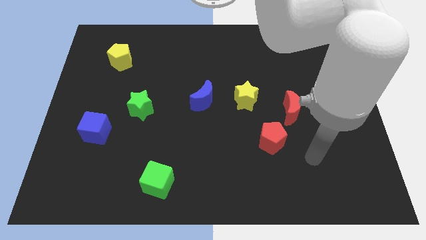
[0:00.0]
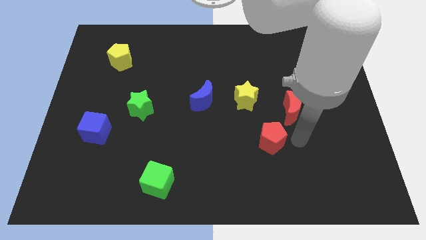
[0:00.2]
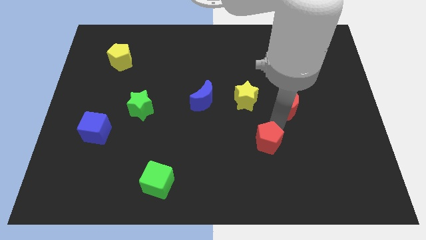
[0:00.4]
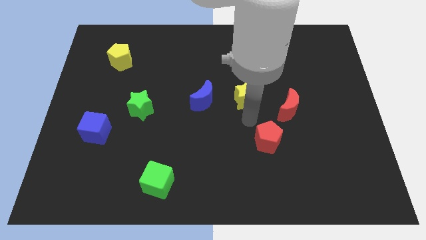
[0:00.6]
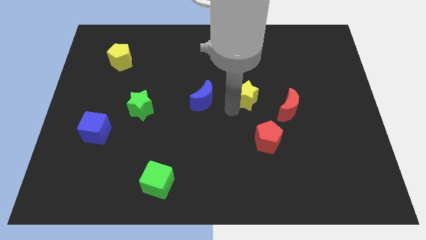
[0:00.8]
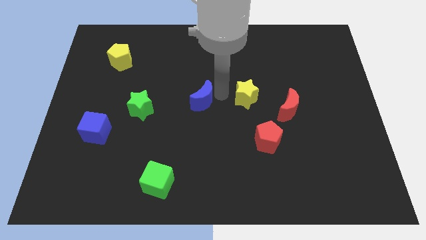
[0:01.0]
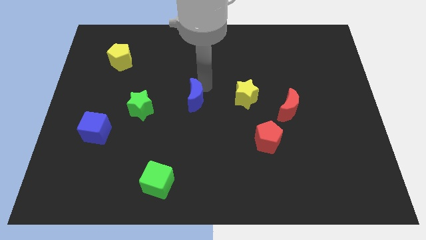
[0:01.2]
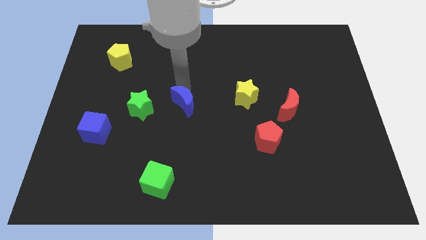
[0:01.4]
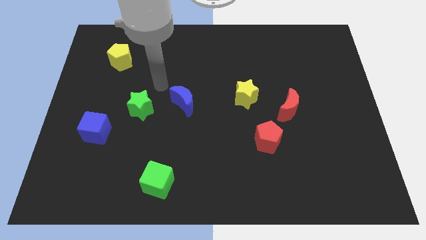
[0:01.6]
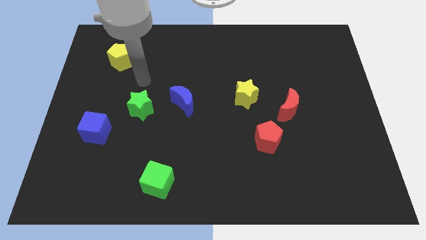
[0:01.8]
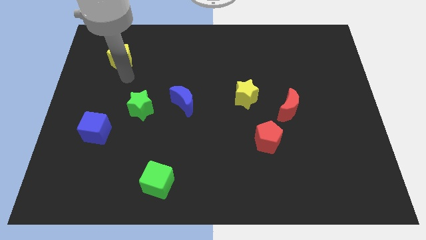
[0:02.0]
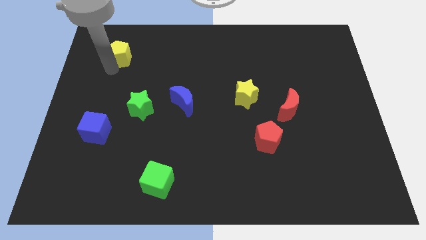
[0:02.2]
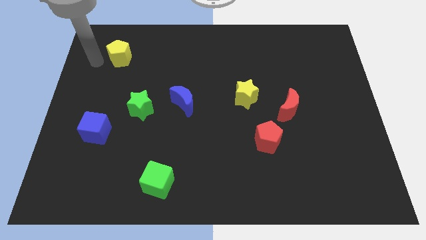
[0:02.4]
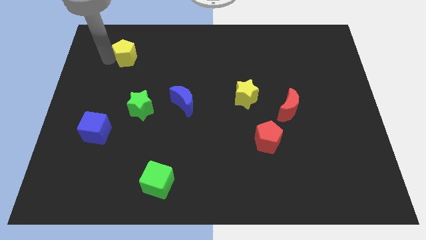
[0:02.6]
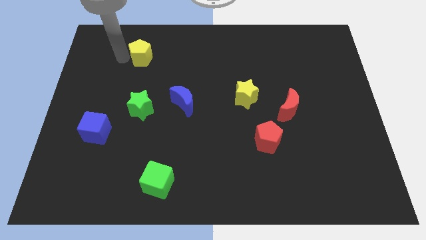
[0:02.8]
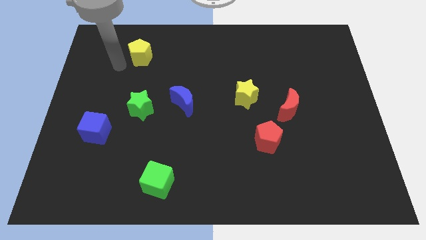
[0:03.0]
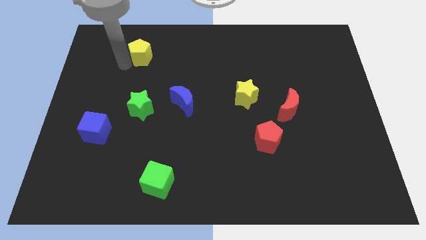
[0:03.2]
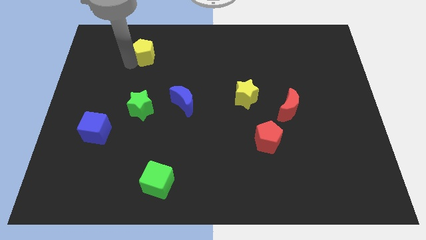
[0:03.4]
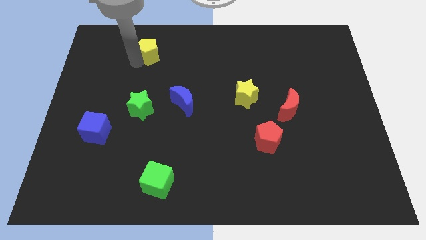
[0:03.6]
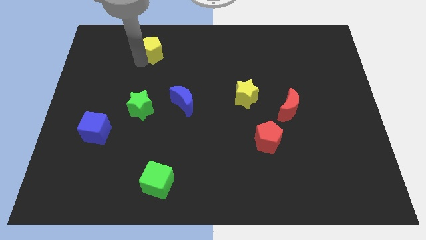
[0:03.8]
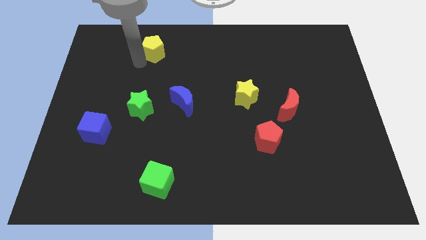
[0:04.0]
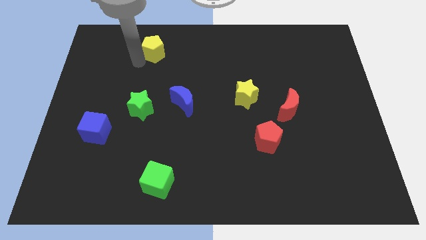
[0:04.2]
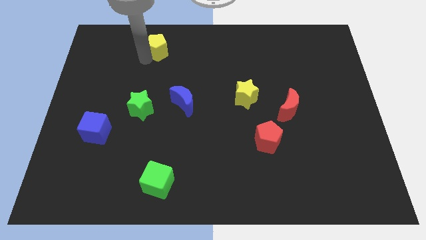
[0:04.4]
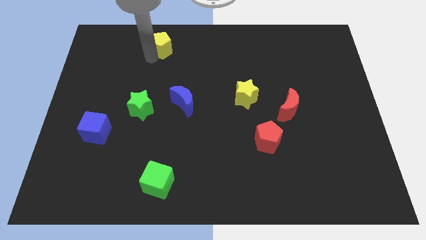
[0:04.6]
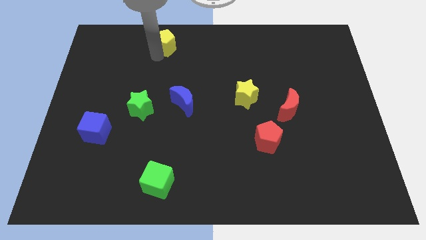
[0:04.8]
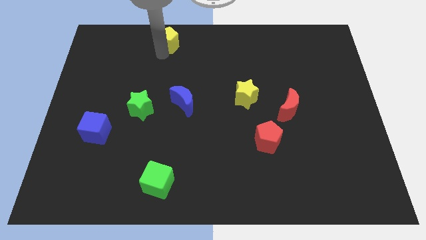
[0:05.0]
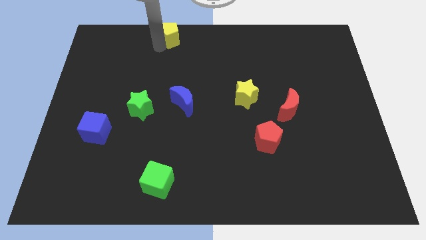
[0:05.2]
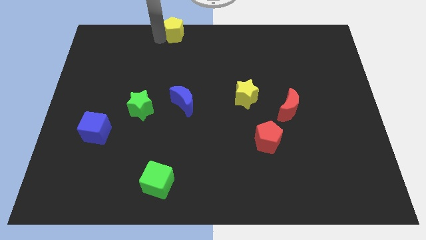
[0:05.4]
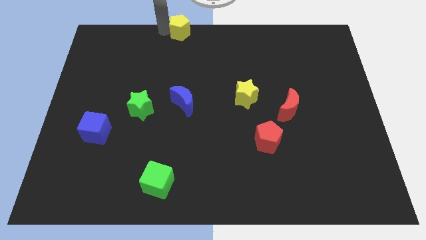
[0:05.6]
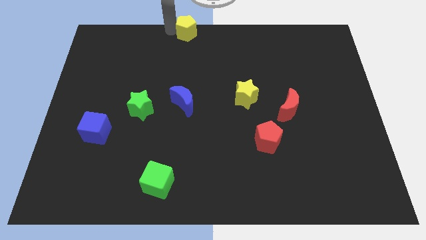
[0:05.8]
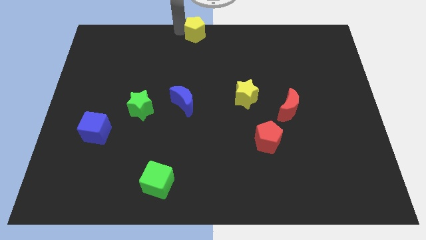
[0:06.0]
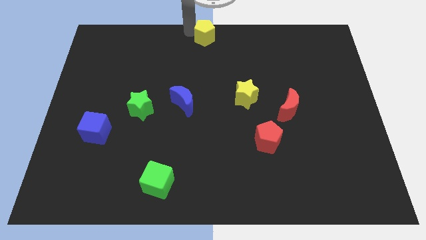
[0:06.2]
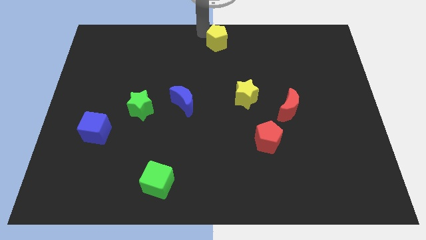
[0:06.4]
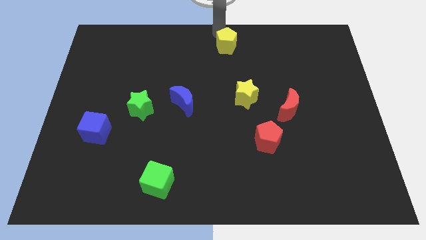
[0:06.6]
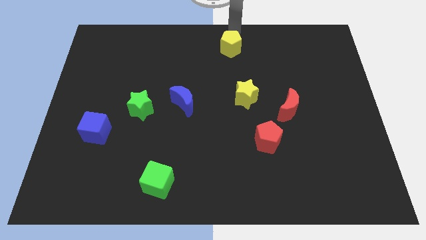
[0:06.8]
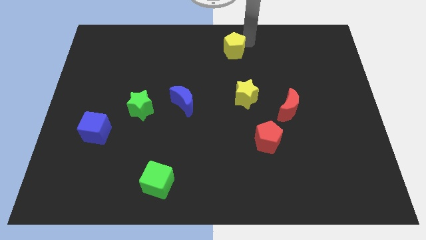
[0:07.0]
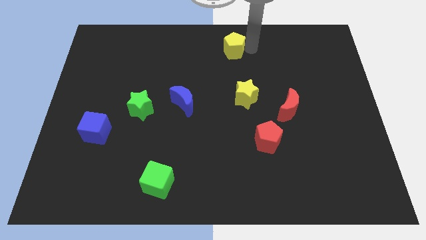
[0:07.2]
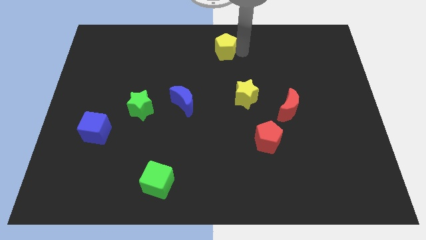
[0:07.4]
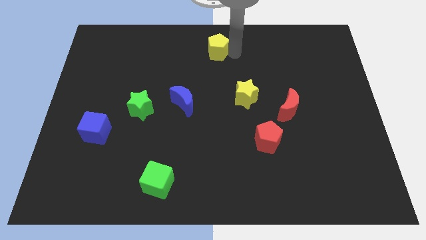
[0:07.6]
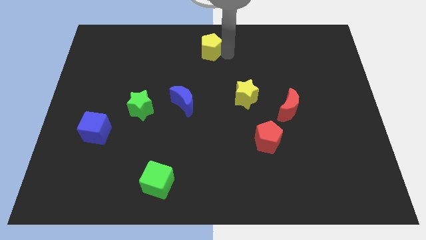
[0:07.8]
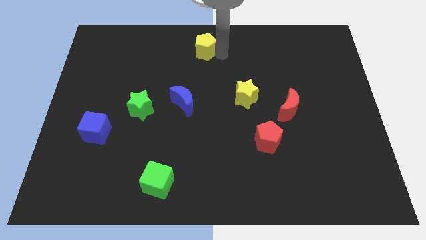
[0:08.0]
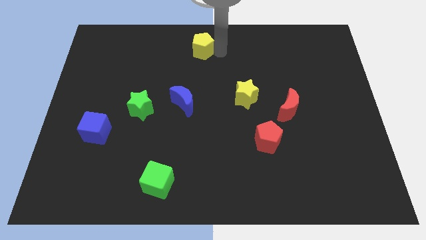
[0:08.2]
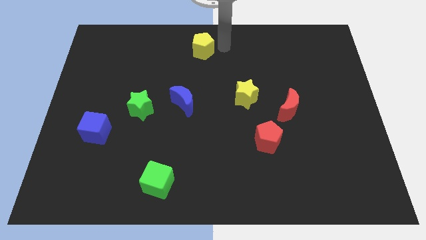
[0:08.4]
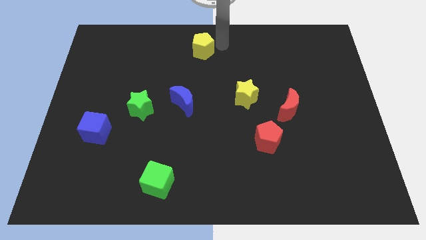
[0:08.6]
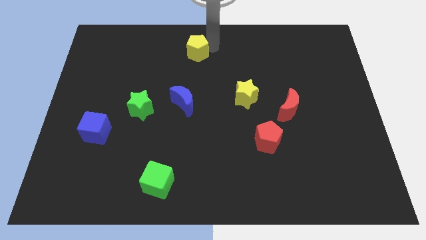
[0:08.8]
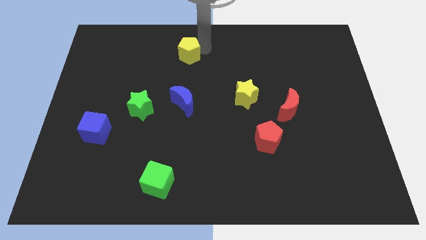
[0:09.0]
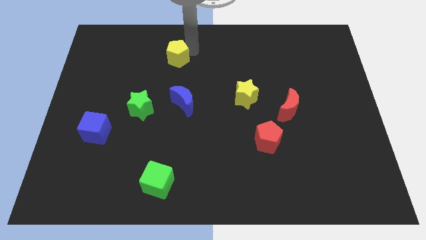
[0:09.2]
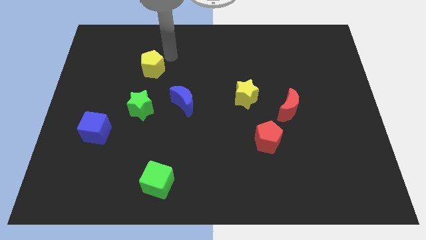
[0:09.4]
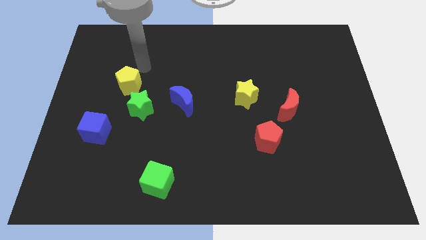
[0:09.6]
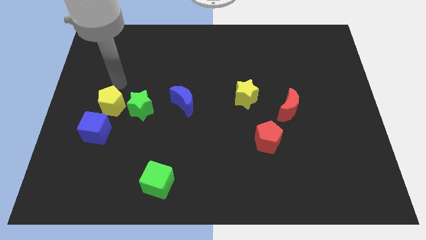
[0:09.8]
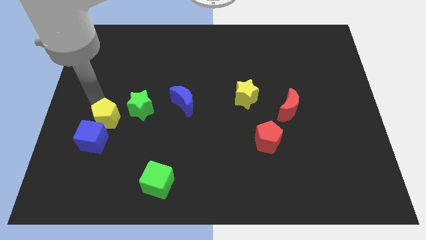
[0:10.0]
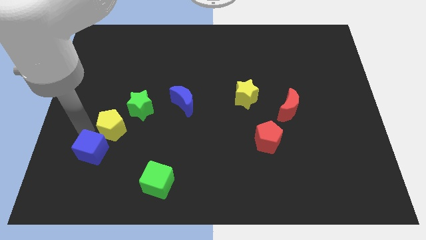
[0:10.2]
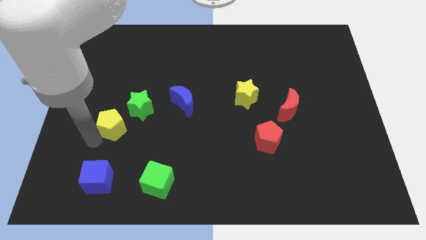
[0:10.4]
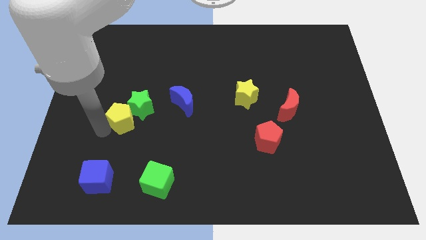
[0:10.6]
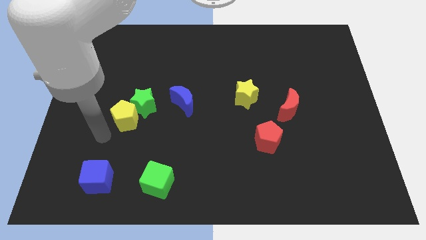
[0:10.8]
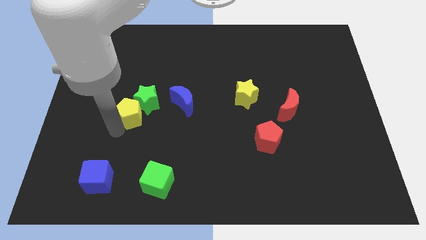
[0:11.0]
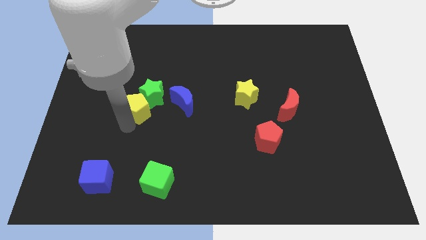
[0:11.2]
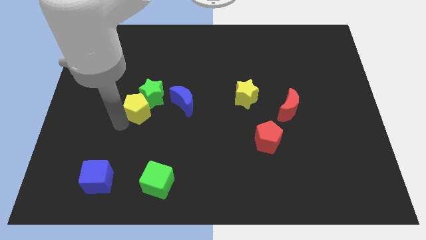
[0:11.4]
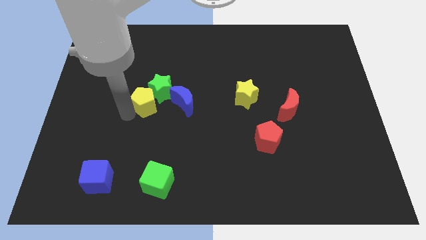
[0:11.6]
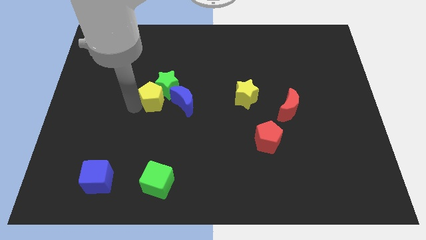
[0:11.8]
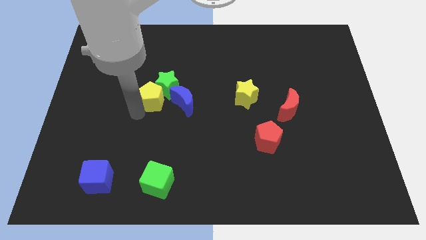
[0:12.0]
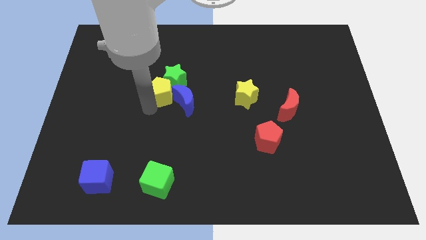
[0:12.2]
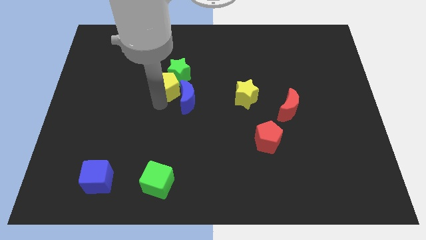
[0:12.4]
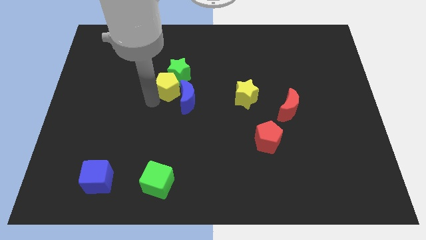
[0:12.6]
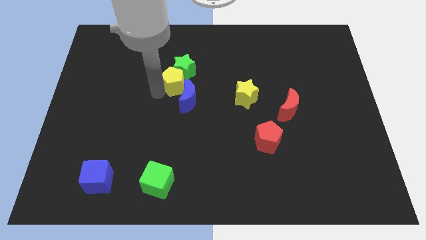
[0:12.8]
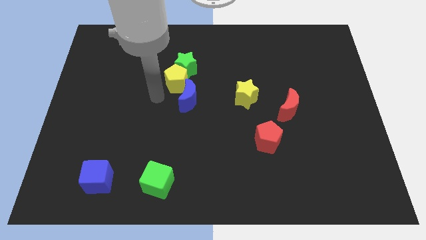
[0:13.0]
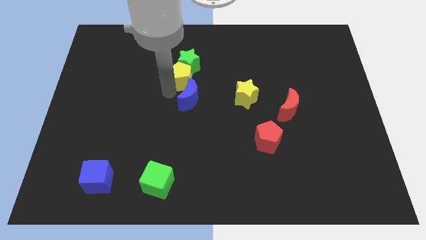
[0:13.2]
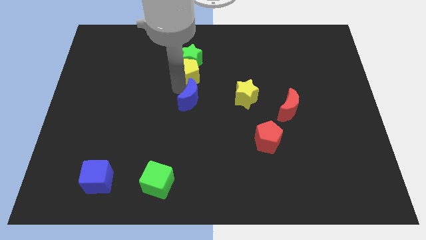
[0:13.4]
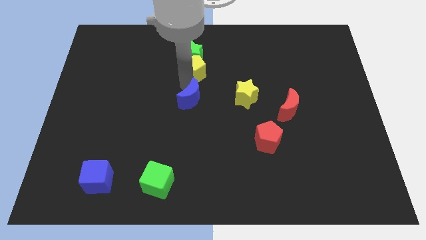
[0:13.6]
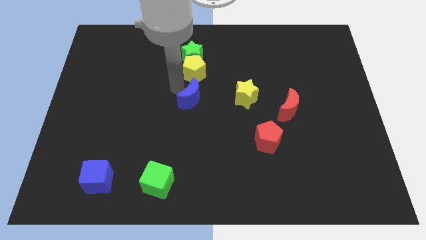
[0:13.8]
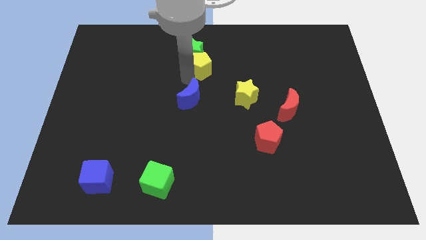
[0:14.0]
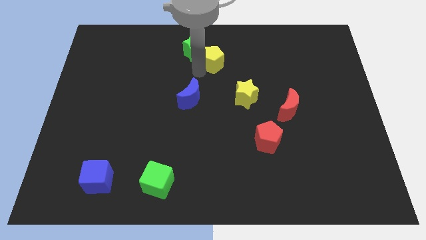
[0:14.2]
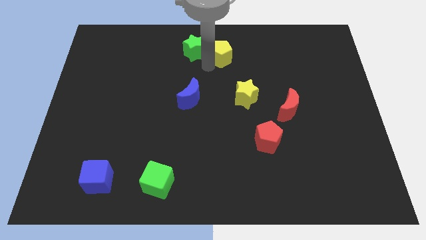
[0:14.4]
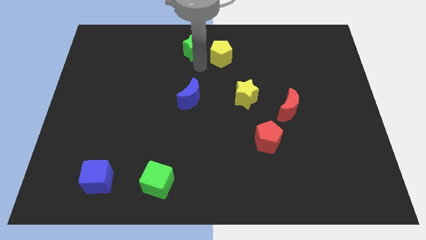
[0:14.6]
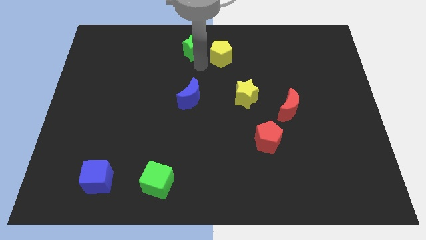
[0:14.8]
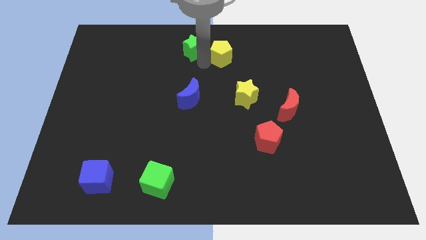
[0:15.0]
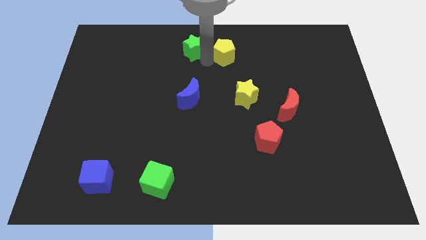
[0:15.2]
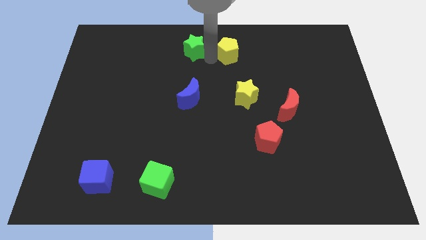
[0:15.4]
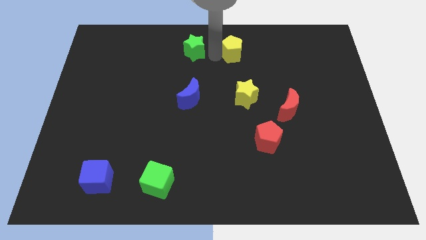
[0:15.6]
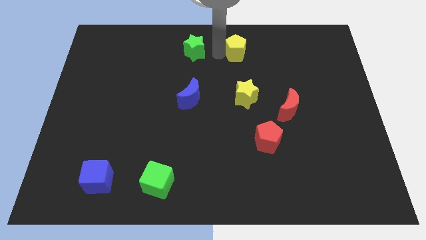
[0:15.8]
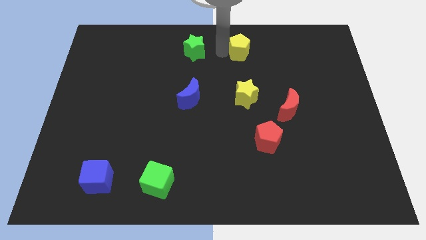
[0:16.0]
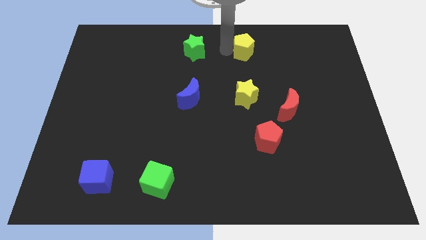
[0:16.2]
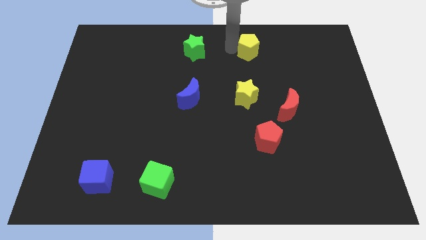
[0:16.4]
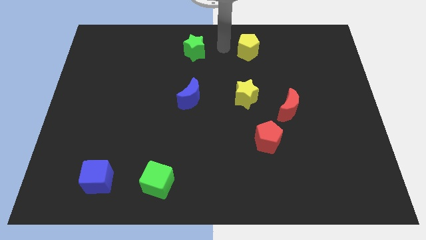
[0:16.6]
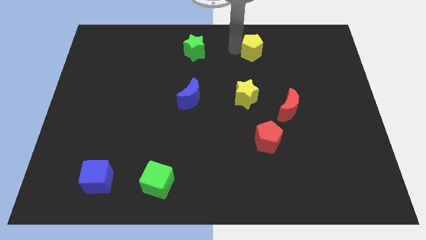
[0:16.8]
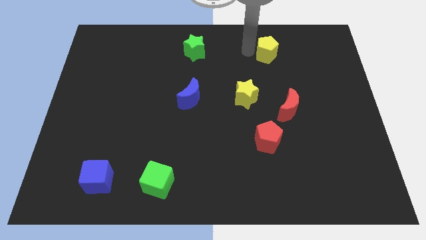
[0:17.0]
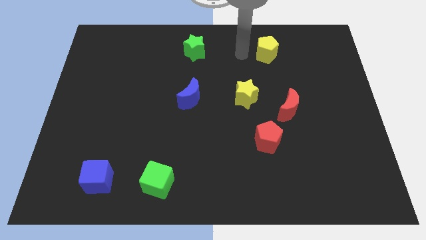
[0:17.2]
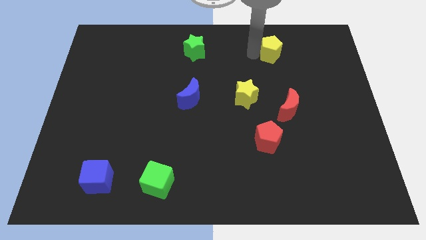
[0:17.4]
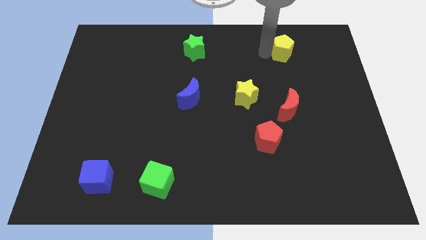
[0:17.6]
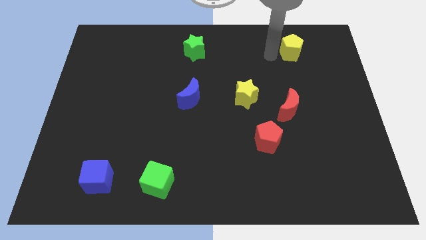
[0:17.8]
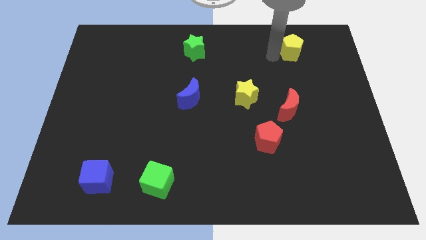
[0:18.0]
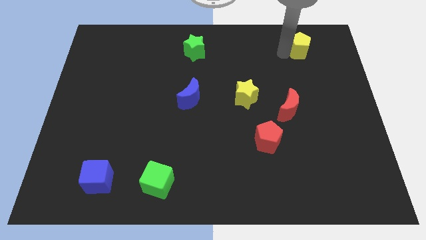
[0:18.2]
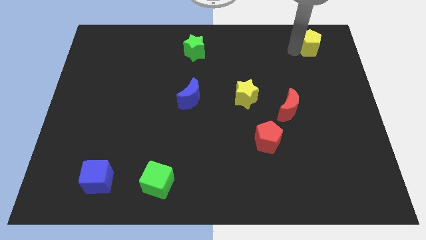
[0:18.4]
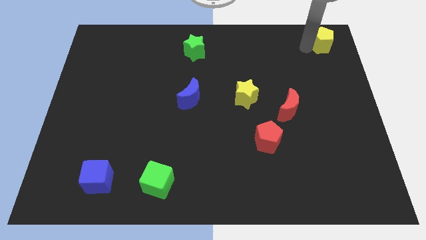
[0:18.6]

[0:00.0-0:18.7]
put the yellow pentagon to the top right corner
